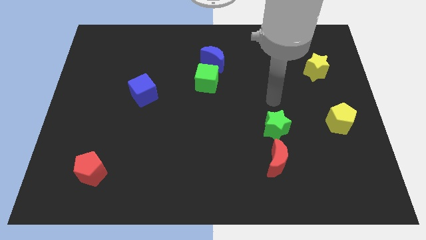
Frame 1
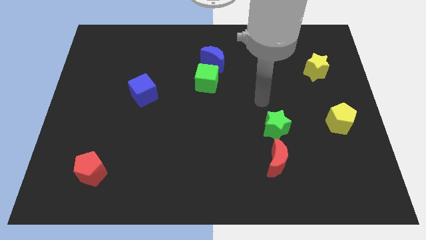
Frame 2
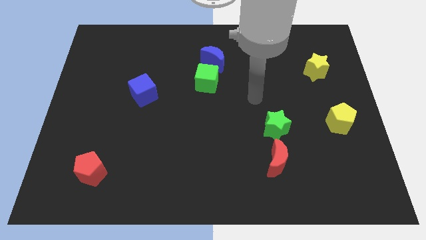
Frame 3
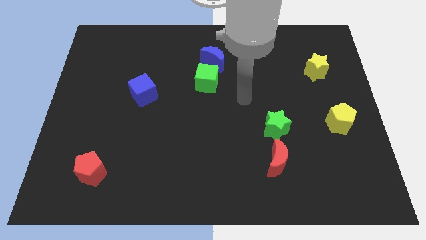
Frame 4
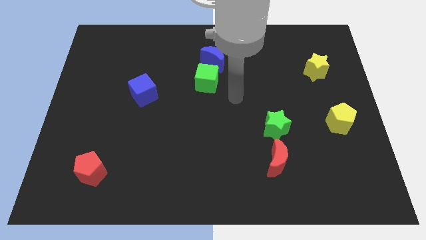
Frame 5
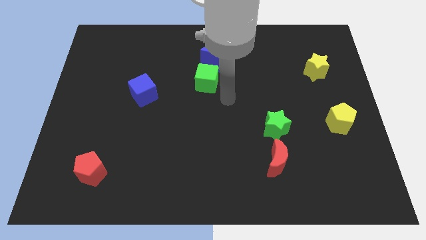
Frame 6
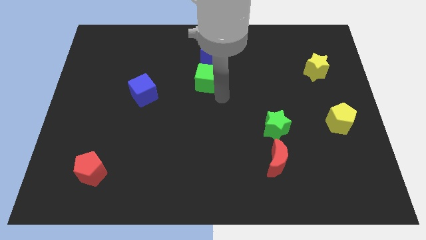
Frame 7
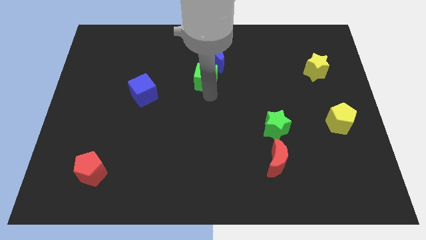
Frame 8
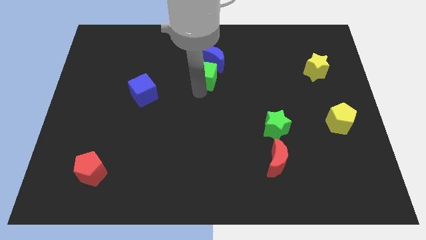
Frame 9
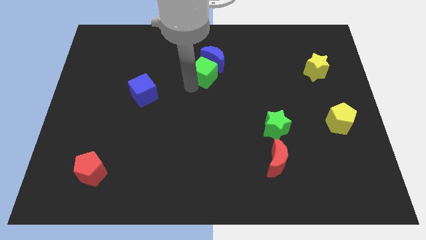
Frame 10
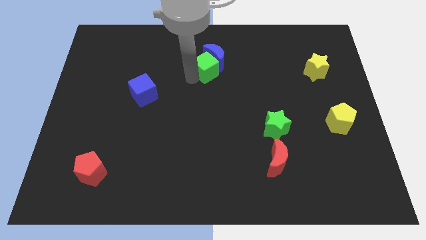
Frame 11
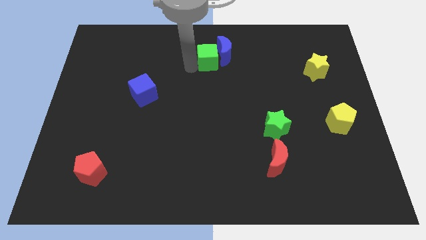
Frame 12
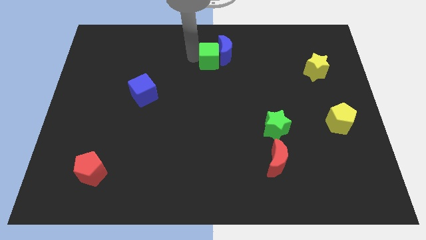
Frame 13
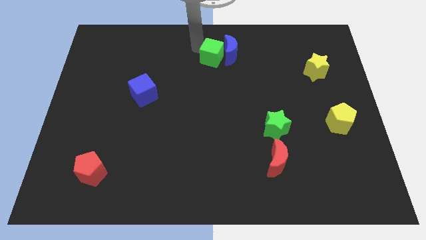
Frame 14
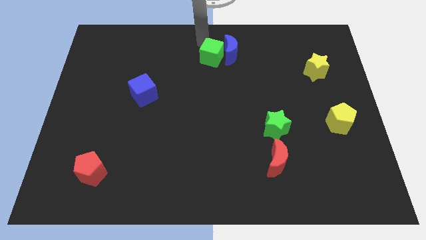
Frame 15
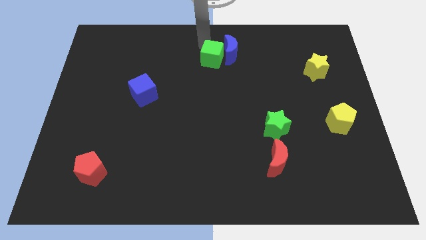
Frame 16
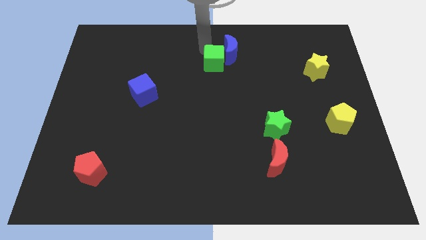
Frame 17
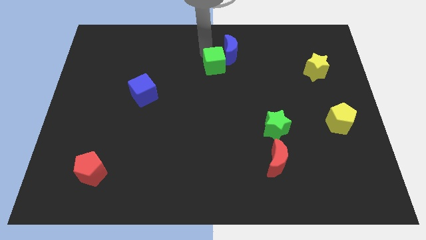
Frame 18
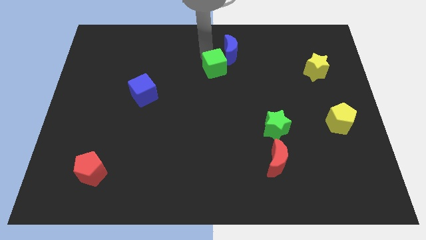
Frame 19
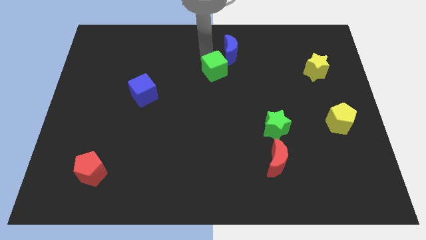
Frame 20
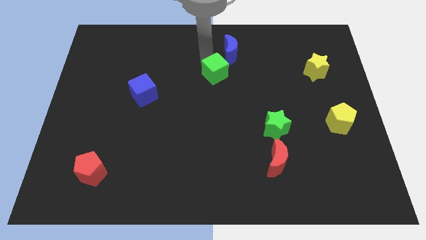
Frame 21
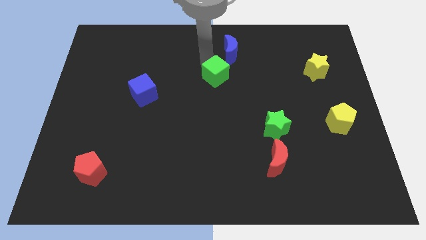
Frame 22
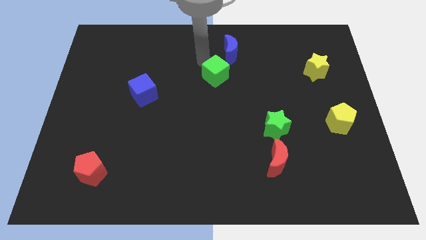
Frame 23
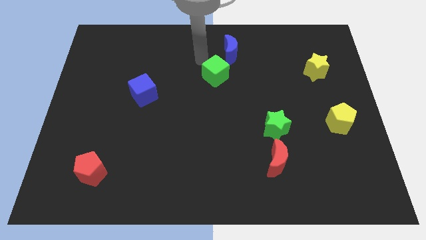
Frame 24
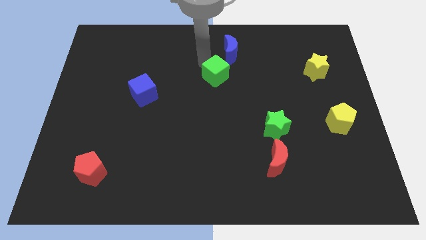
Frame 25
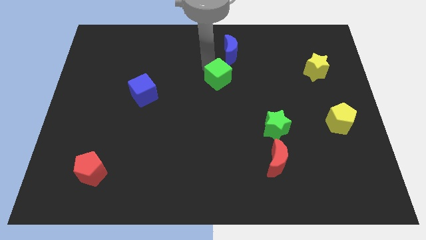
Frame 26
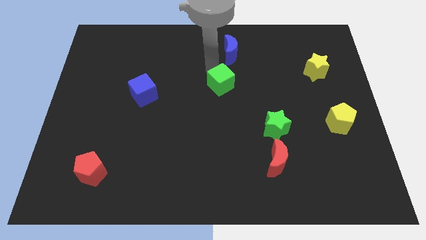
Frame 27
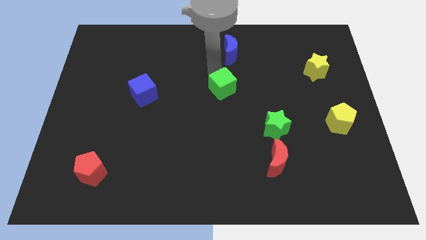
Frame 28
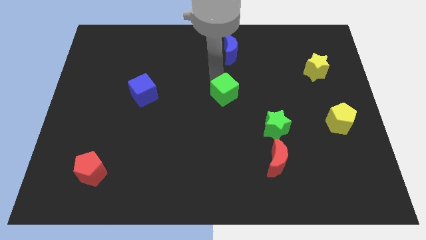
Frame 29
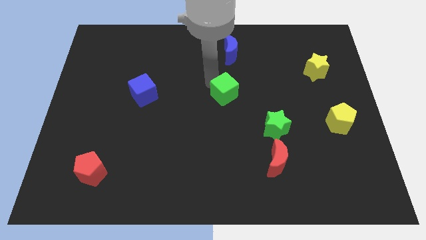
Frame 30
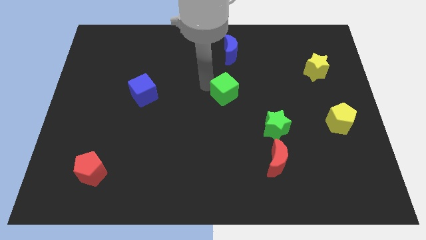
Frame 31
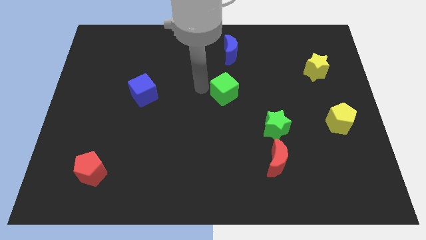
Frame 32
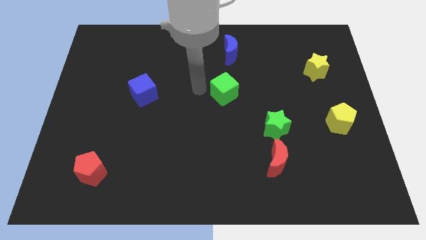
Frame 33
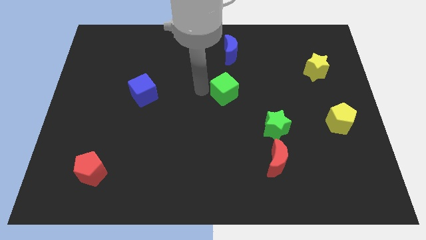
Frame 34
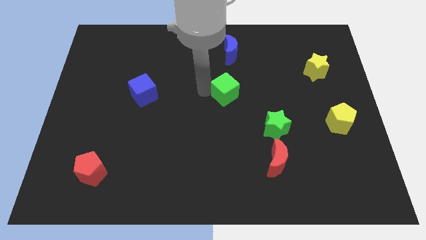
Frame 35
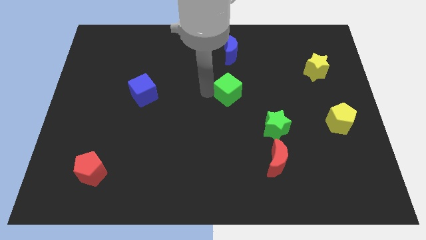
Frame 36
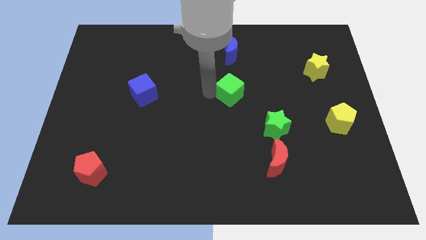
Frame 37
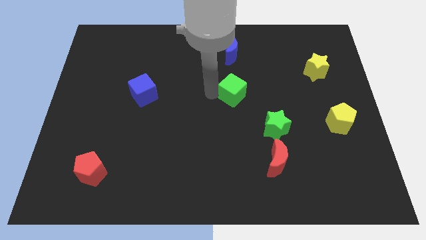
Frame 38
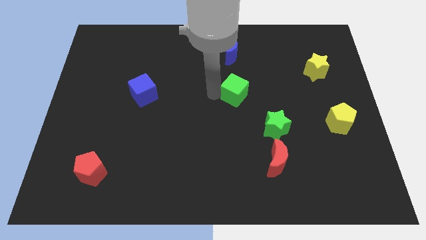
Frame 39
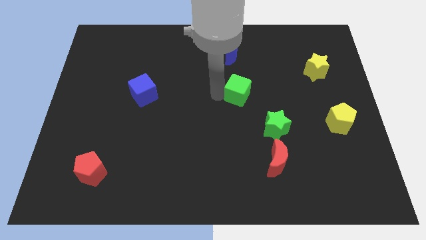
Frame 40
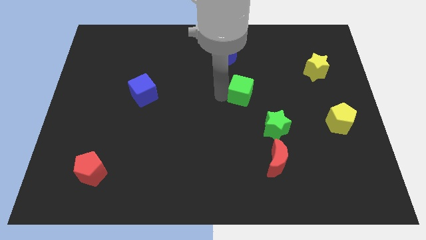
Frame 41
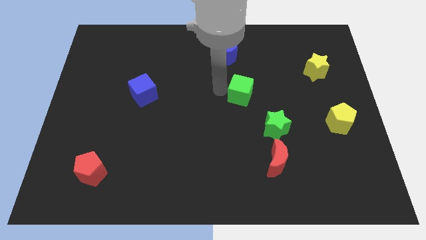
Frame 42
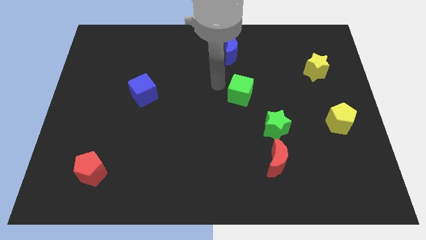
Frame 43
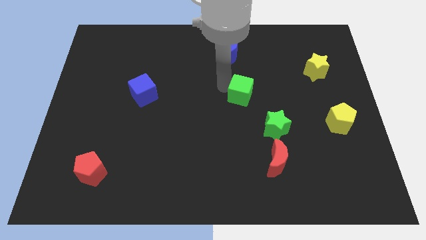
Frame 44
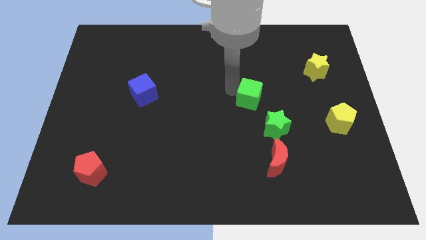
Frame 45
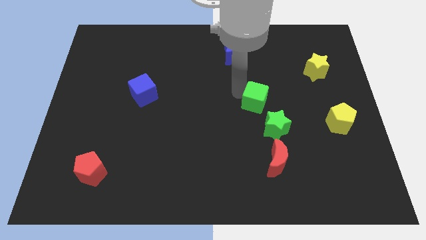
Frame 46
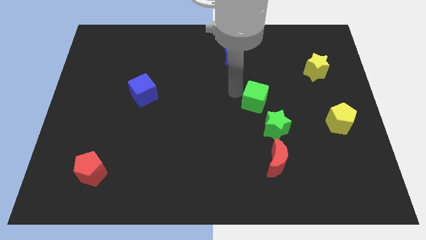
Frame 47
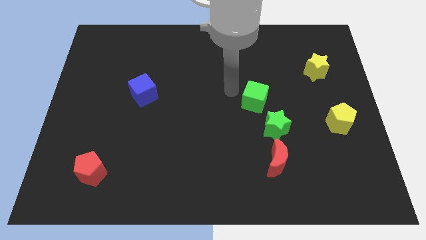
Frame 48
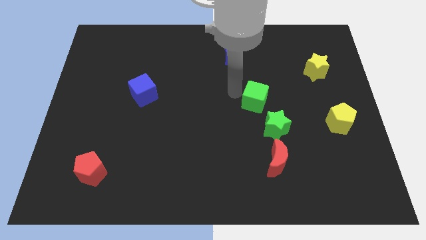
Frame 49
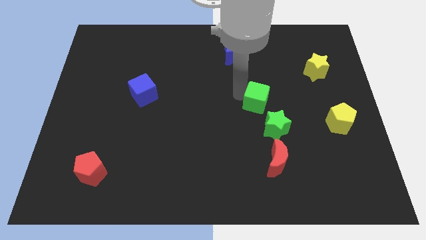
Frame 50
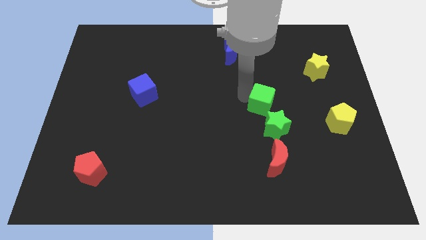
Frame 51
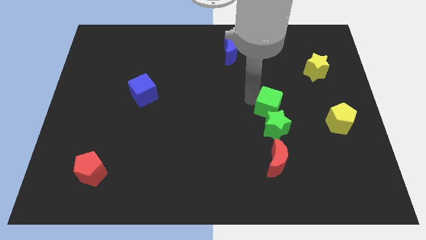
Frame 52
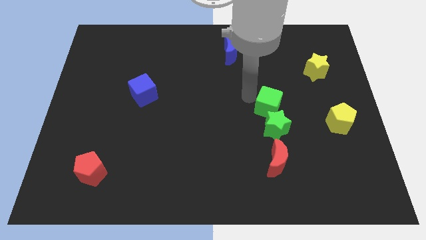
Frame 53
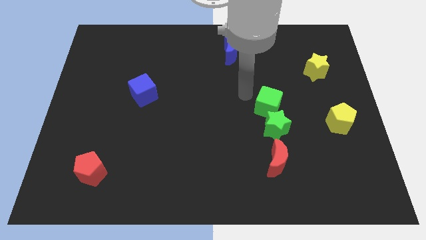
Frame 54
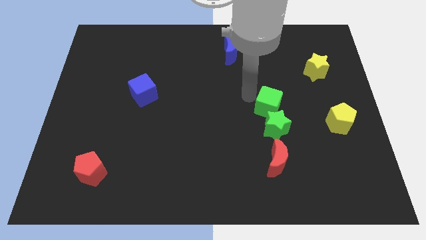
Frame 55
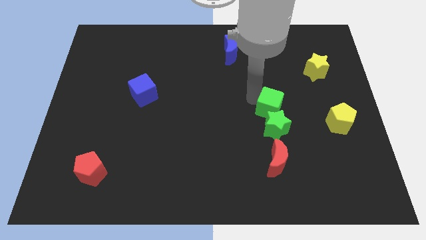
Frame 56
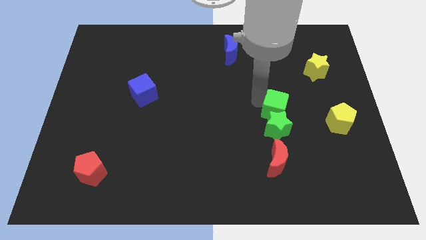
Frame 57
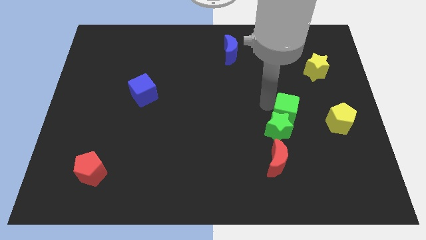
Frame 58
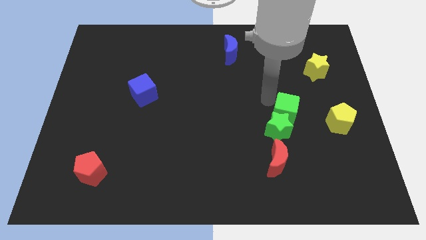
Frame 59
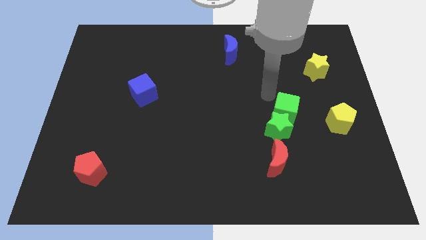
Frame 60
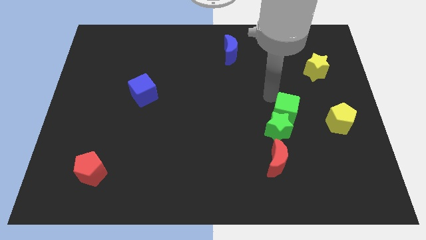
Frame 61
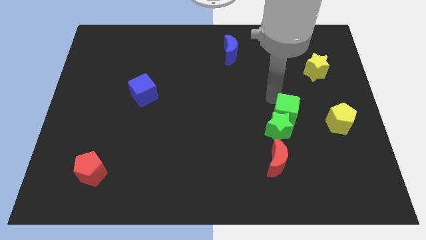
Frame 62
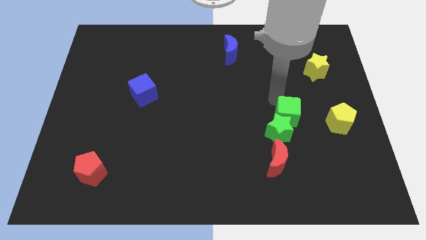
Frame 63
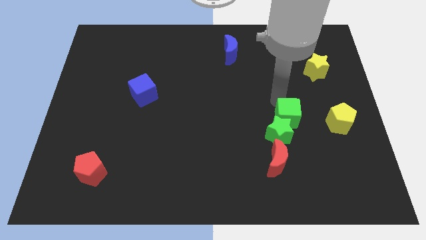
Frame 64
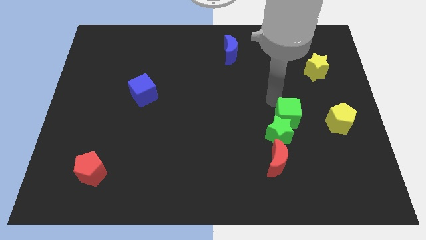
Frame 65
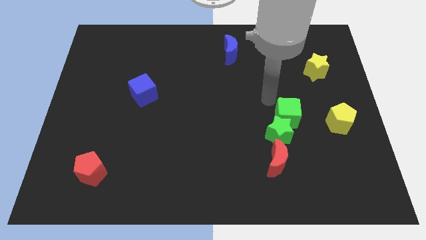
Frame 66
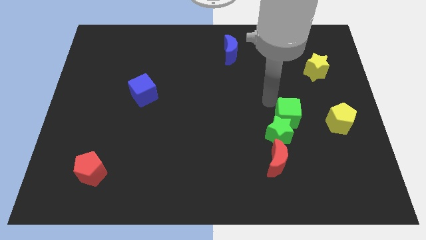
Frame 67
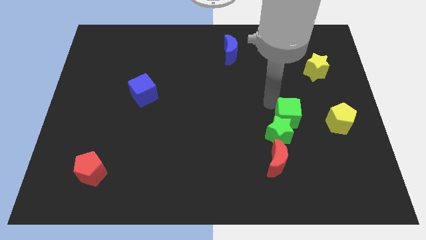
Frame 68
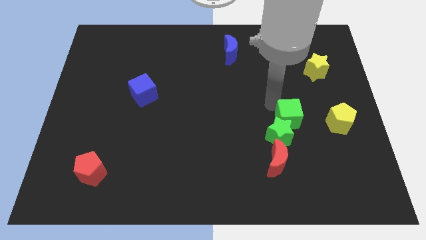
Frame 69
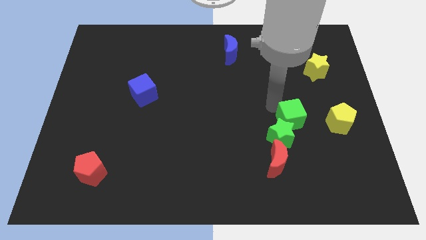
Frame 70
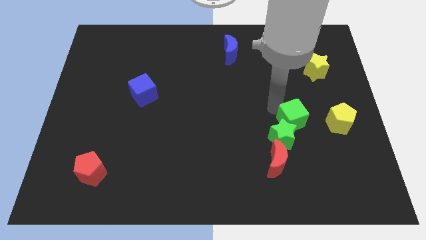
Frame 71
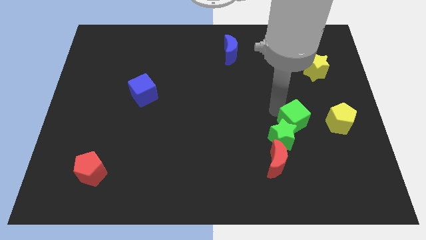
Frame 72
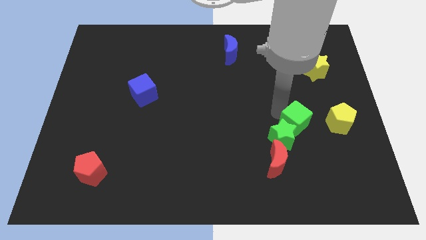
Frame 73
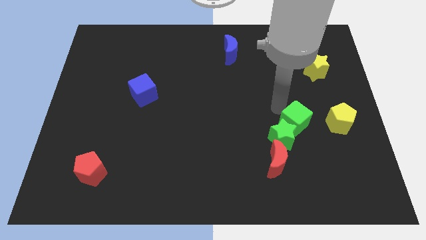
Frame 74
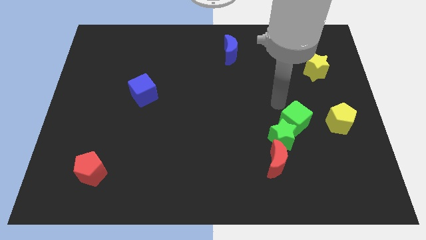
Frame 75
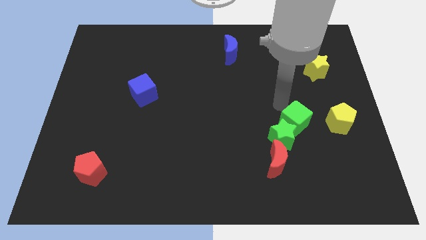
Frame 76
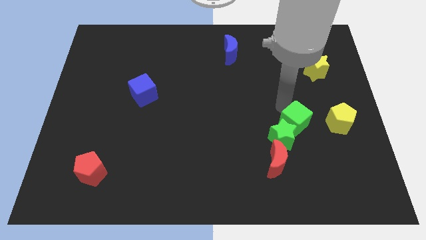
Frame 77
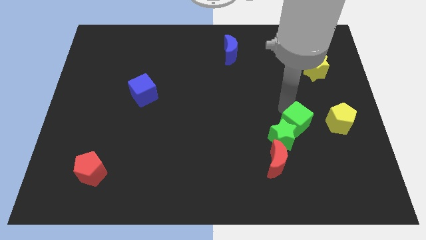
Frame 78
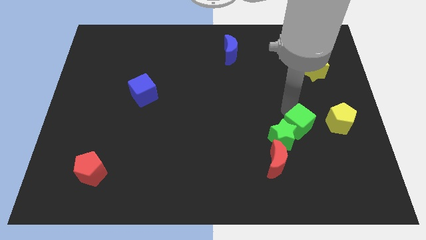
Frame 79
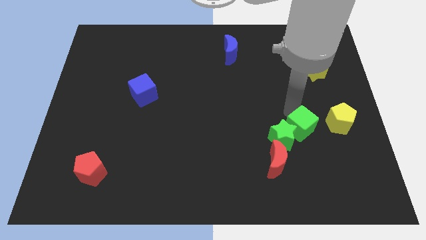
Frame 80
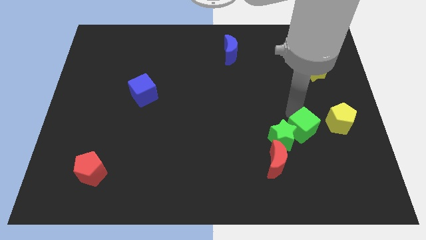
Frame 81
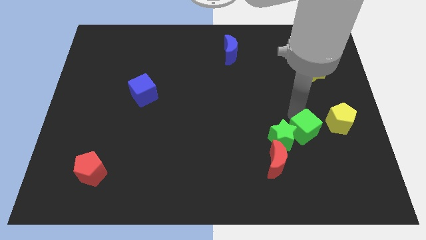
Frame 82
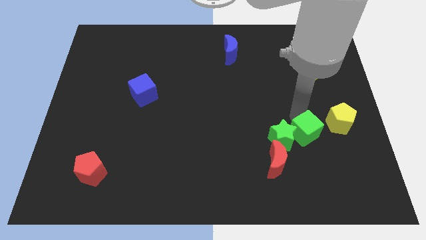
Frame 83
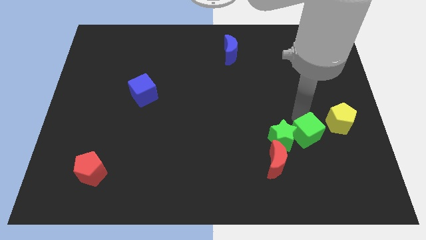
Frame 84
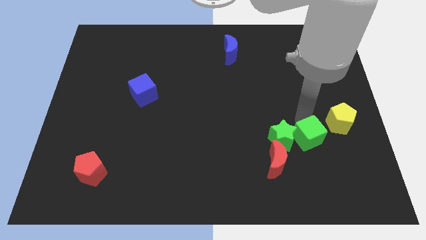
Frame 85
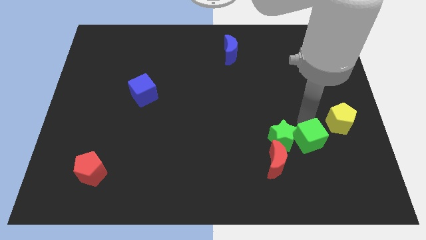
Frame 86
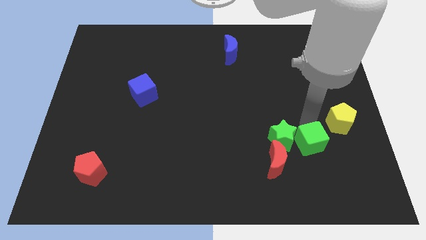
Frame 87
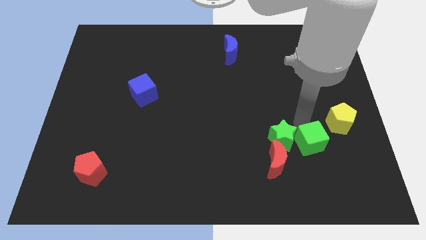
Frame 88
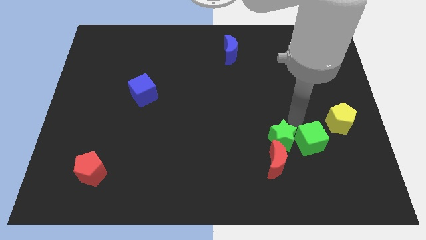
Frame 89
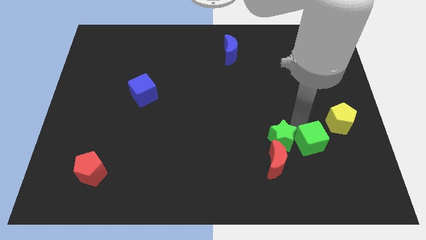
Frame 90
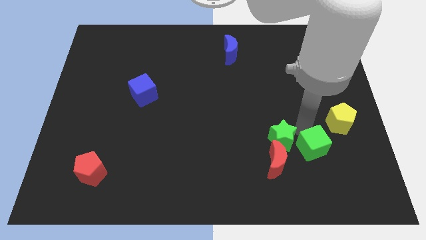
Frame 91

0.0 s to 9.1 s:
push the green cube to the right side of the red moon
